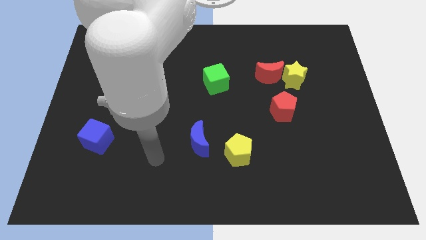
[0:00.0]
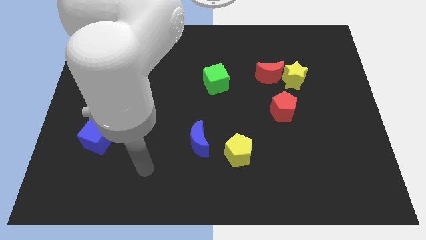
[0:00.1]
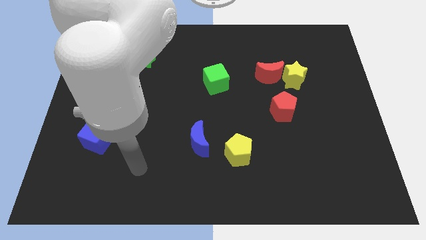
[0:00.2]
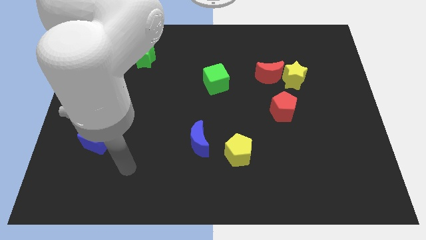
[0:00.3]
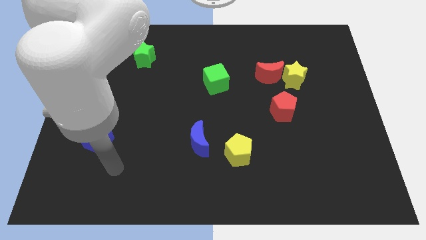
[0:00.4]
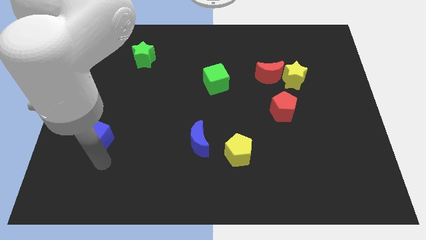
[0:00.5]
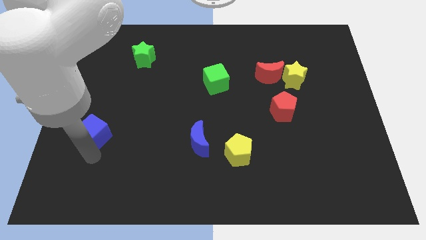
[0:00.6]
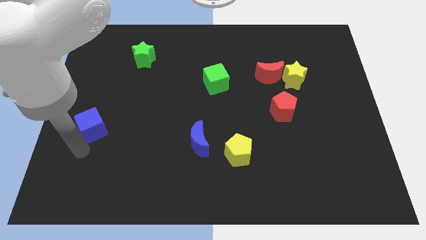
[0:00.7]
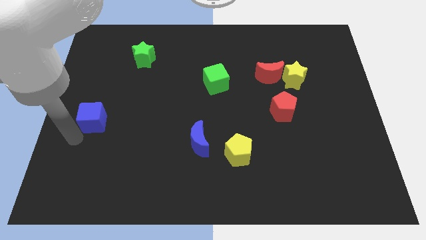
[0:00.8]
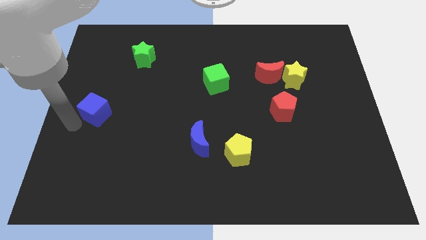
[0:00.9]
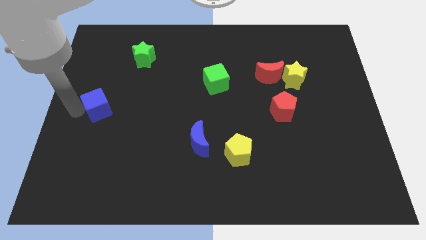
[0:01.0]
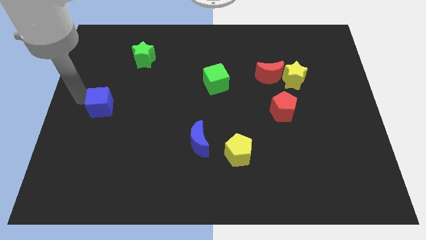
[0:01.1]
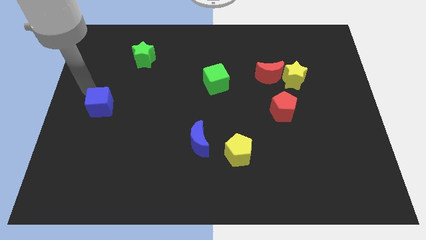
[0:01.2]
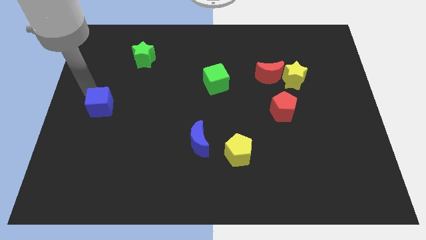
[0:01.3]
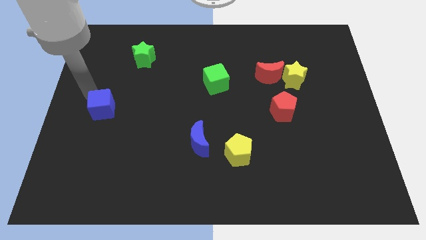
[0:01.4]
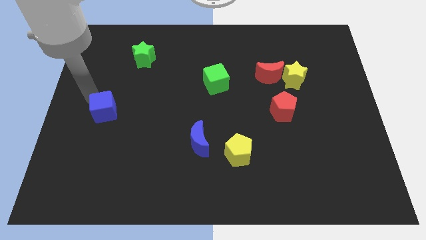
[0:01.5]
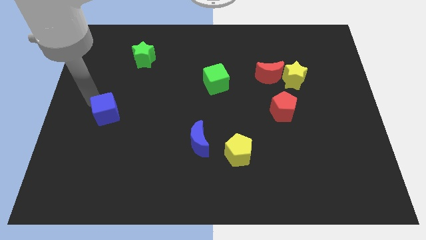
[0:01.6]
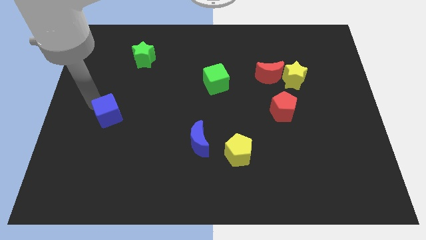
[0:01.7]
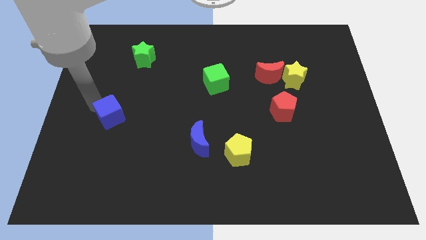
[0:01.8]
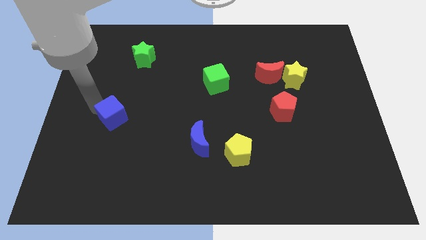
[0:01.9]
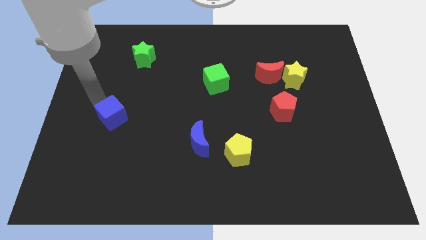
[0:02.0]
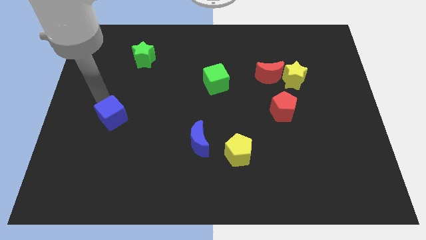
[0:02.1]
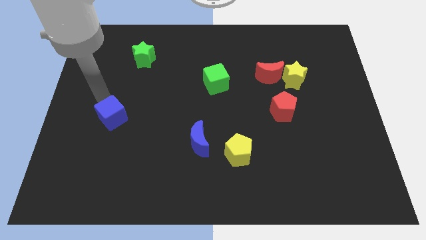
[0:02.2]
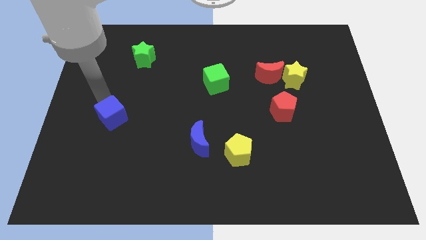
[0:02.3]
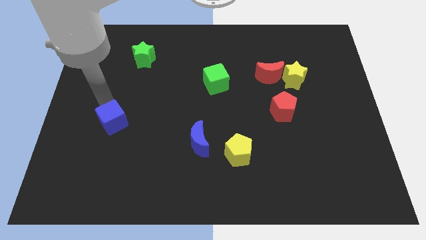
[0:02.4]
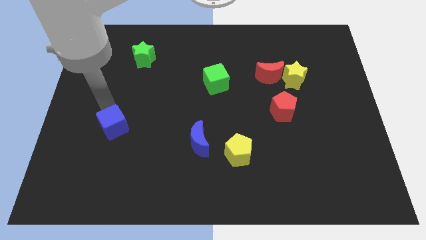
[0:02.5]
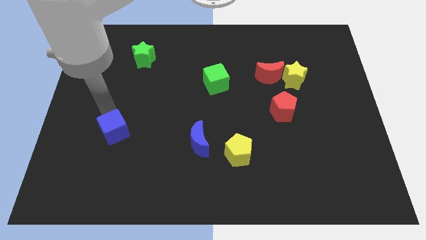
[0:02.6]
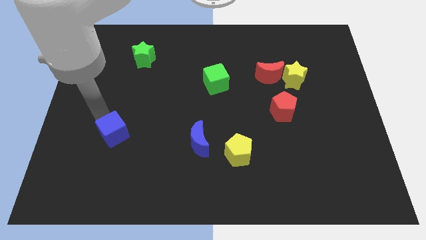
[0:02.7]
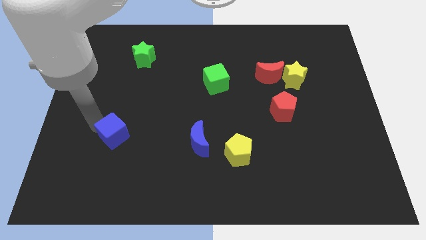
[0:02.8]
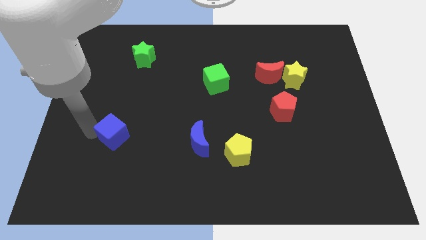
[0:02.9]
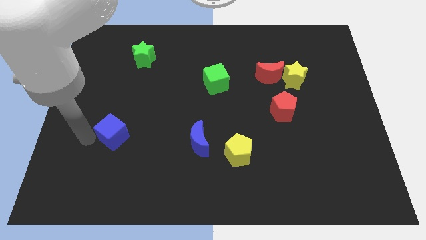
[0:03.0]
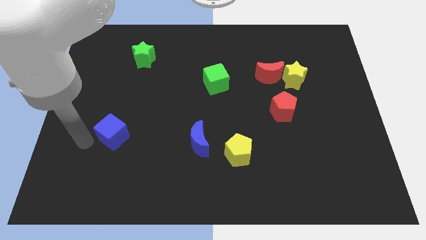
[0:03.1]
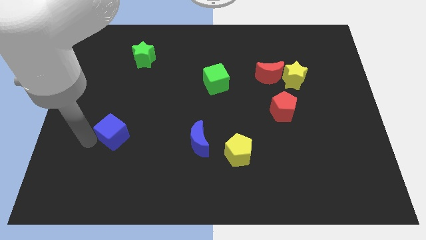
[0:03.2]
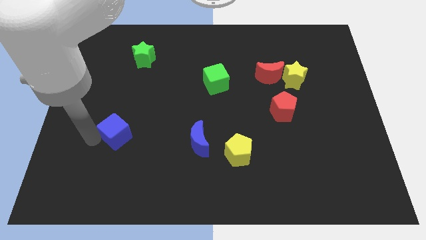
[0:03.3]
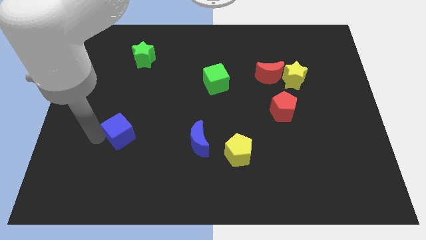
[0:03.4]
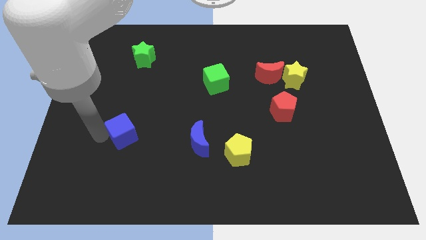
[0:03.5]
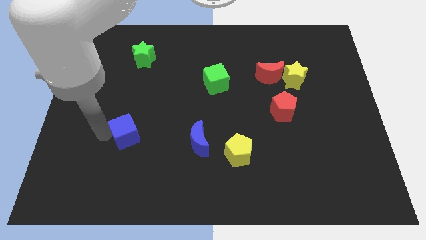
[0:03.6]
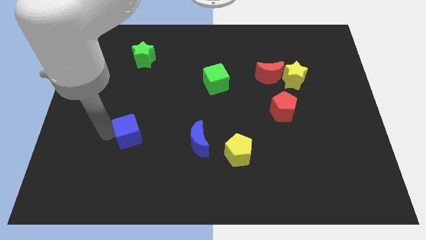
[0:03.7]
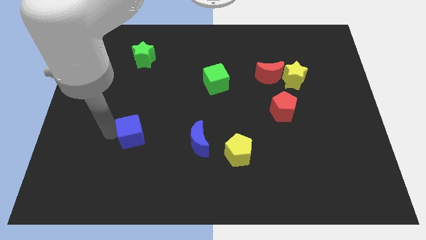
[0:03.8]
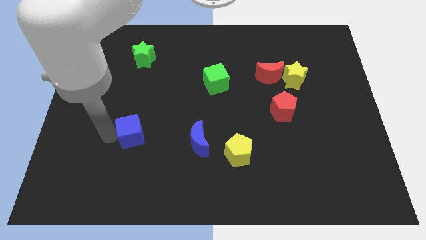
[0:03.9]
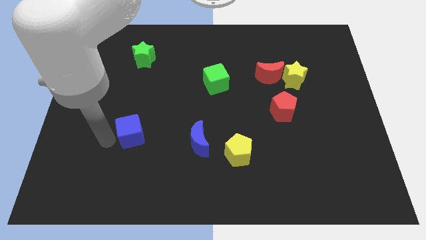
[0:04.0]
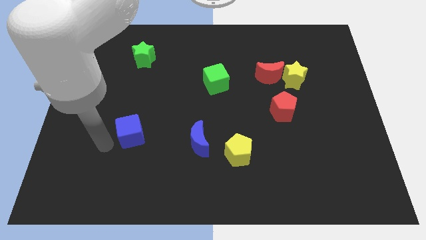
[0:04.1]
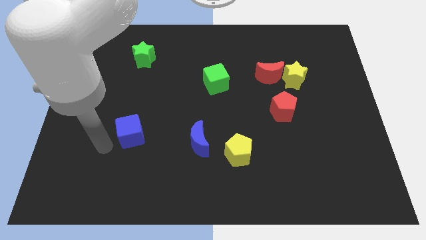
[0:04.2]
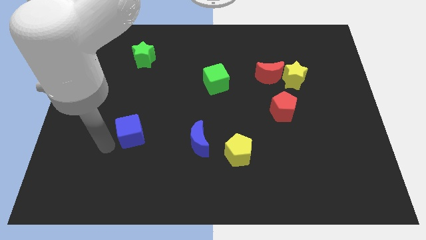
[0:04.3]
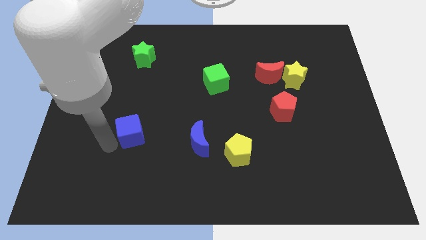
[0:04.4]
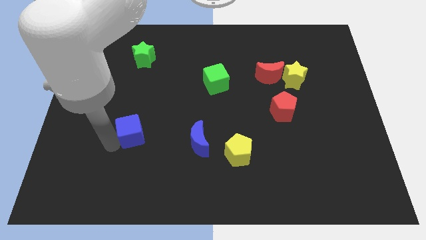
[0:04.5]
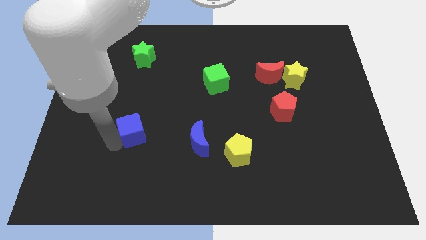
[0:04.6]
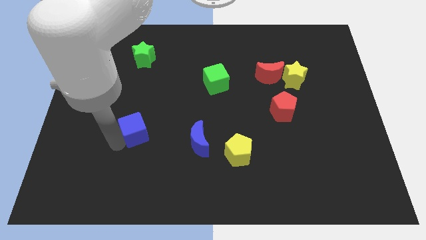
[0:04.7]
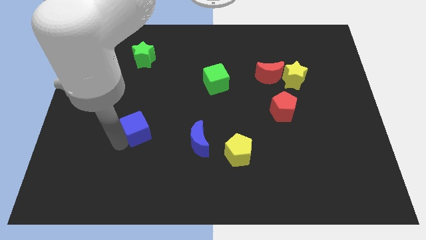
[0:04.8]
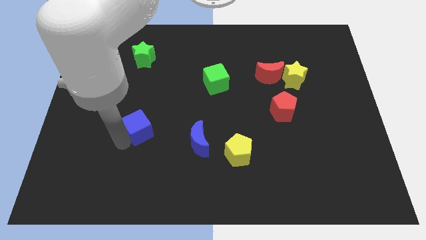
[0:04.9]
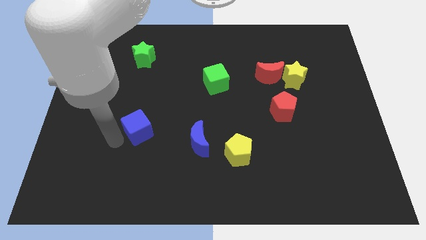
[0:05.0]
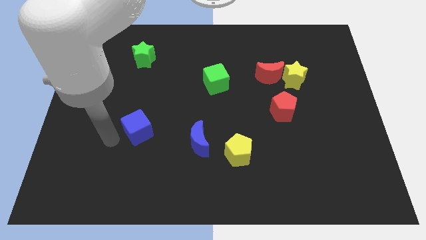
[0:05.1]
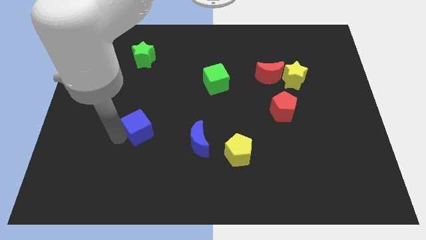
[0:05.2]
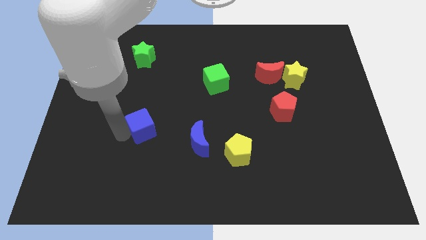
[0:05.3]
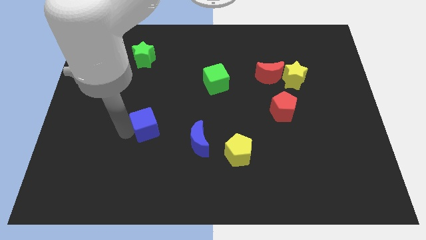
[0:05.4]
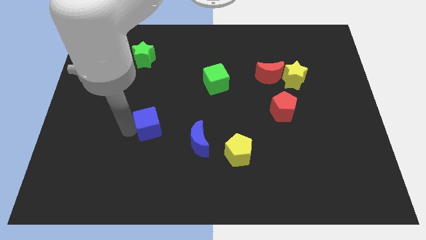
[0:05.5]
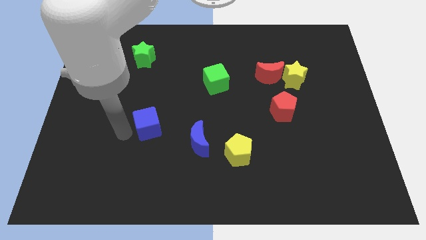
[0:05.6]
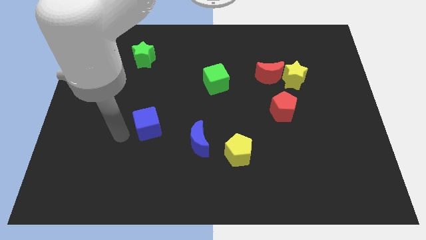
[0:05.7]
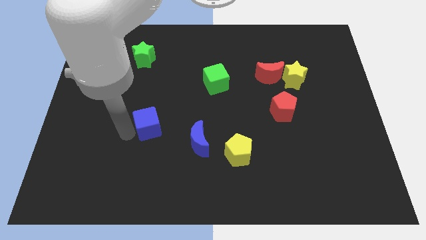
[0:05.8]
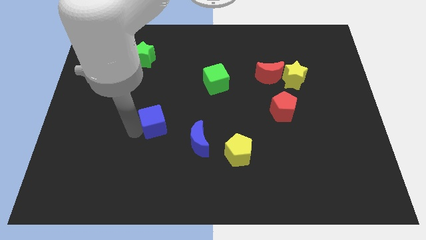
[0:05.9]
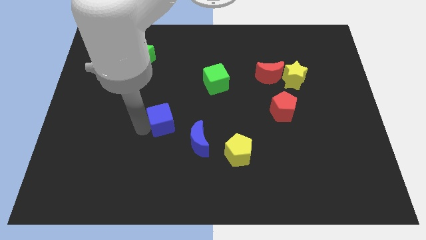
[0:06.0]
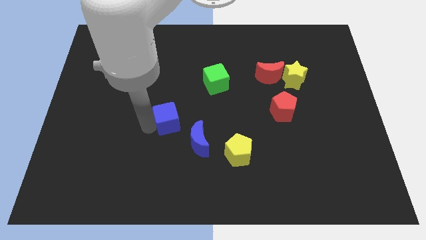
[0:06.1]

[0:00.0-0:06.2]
move the blue cube to the middle
